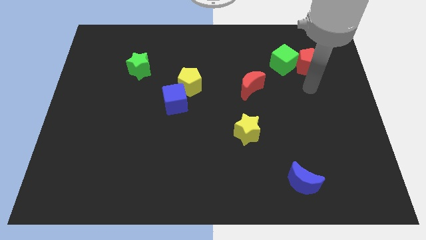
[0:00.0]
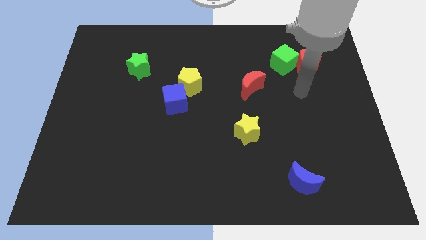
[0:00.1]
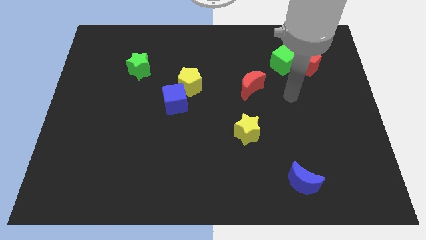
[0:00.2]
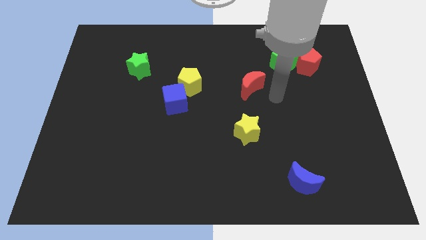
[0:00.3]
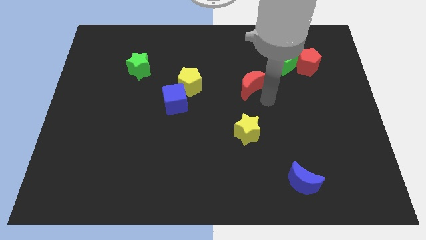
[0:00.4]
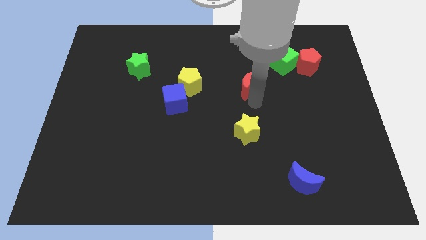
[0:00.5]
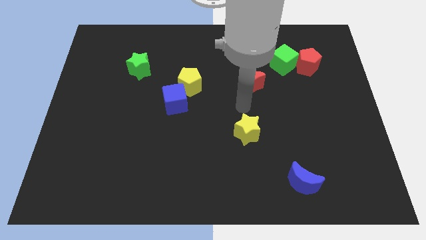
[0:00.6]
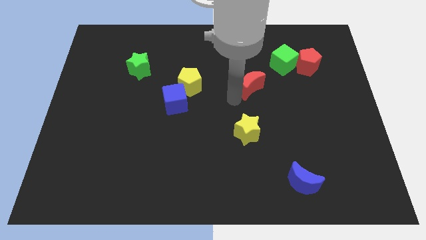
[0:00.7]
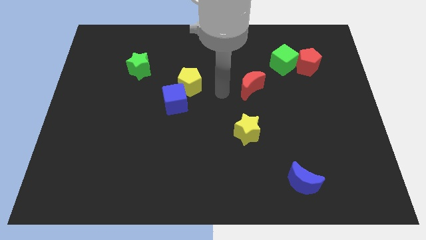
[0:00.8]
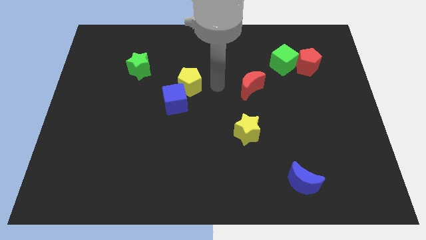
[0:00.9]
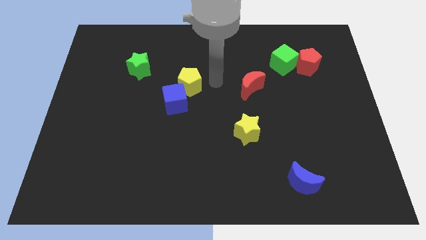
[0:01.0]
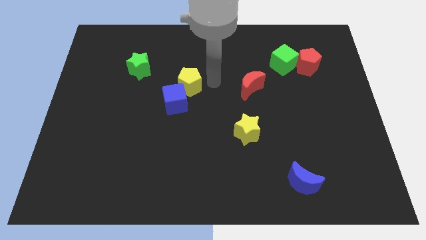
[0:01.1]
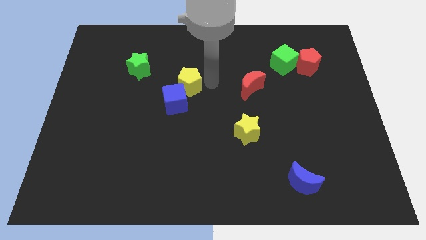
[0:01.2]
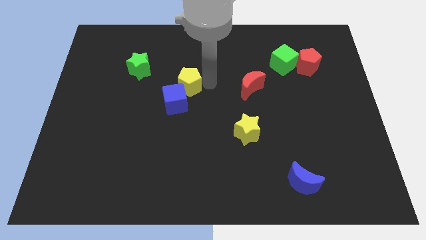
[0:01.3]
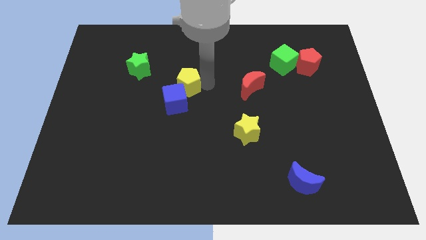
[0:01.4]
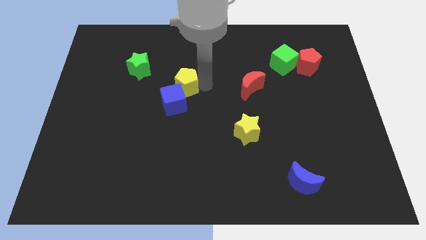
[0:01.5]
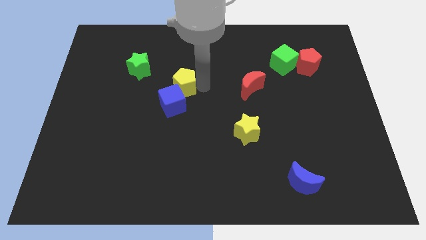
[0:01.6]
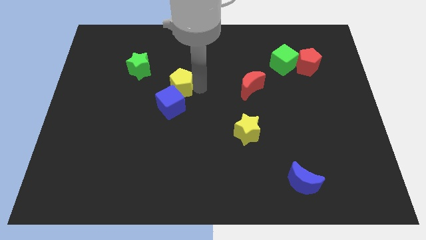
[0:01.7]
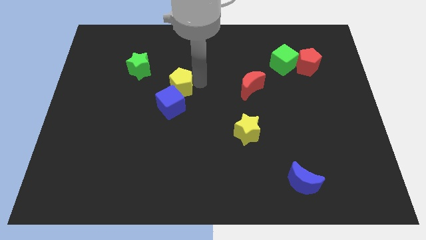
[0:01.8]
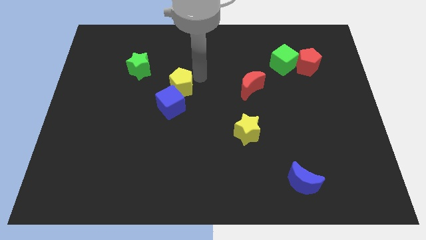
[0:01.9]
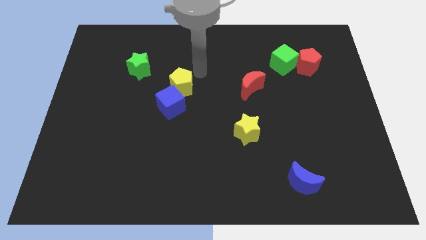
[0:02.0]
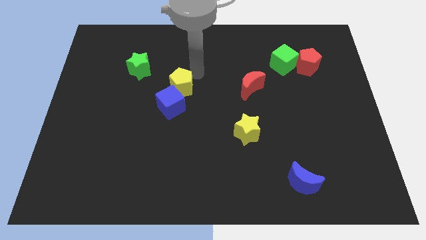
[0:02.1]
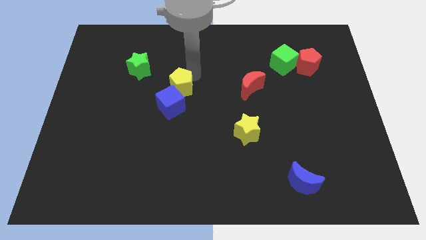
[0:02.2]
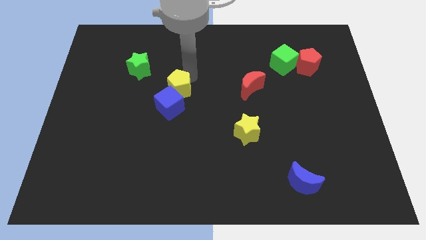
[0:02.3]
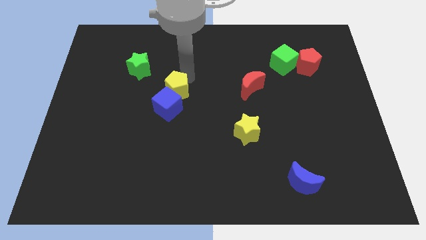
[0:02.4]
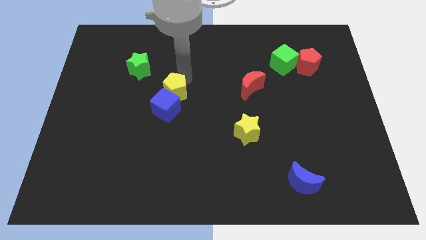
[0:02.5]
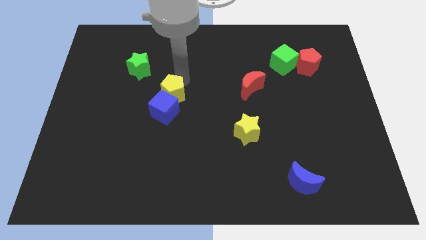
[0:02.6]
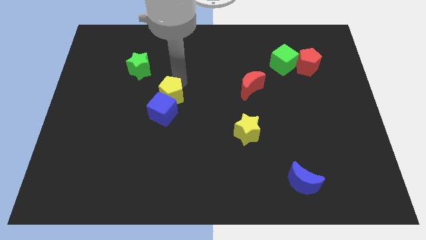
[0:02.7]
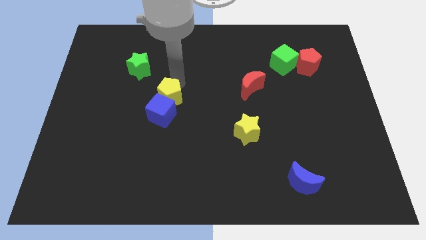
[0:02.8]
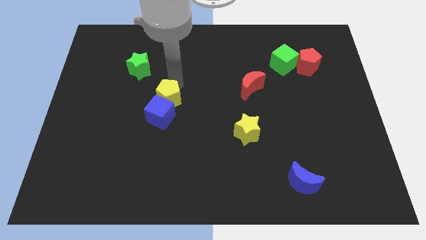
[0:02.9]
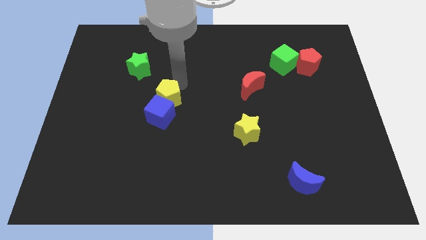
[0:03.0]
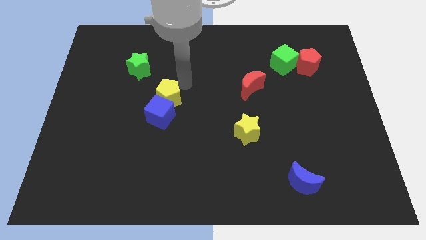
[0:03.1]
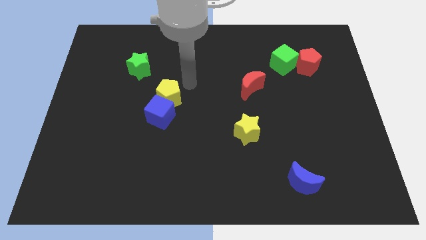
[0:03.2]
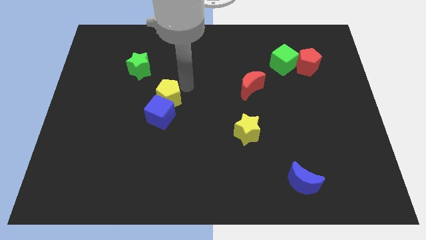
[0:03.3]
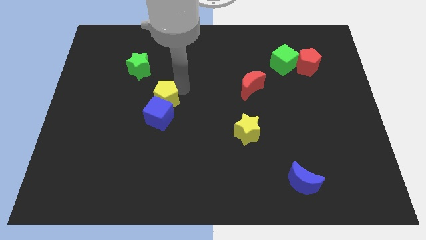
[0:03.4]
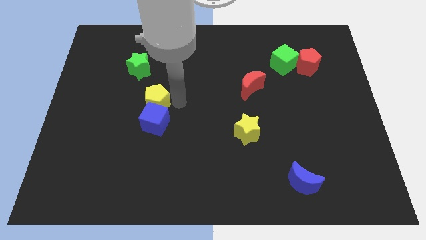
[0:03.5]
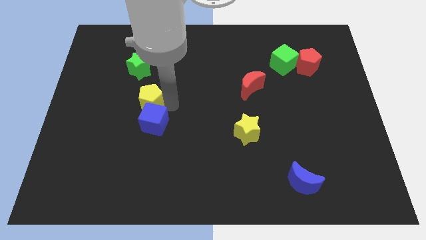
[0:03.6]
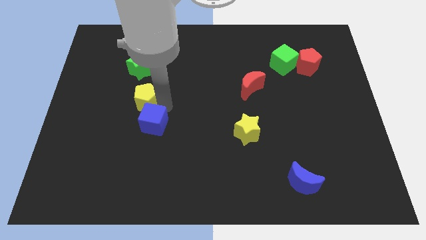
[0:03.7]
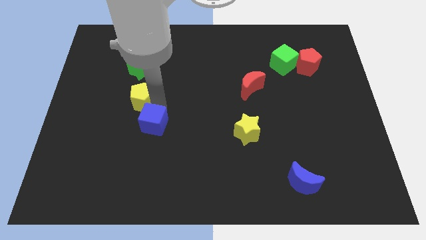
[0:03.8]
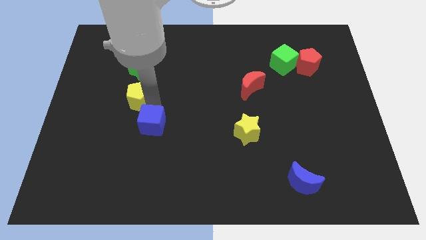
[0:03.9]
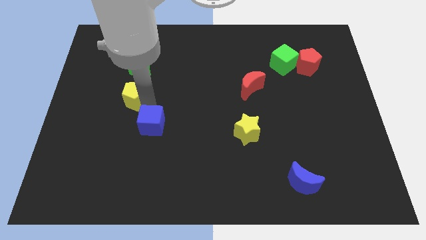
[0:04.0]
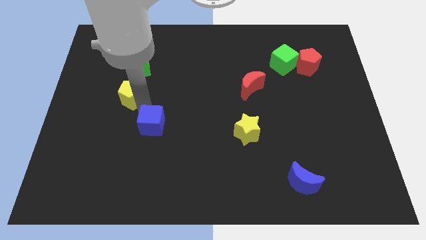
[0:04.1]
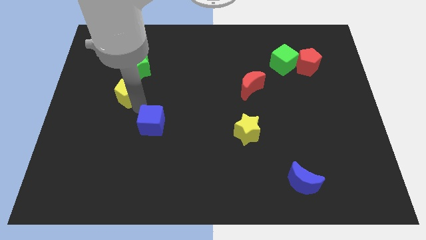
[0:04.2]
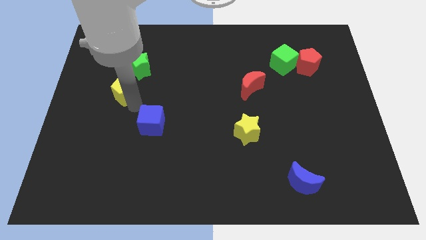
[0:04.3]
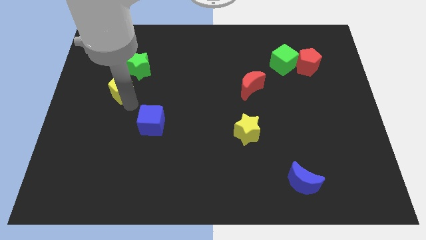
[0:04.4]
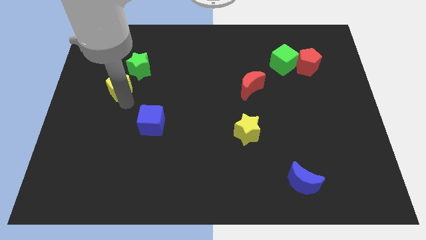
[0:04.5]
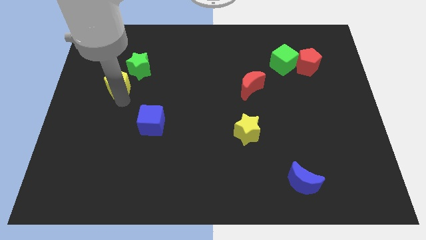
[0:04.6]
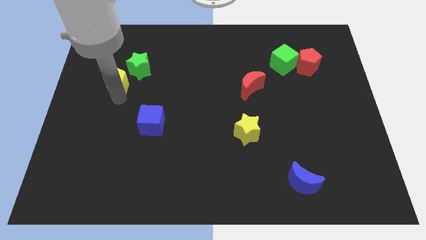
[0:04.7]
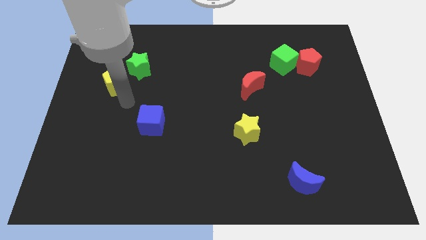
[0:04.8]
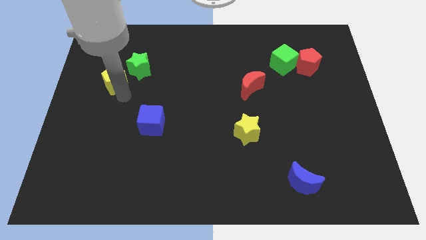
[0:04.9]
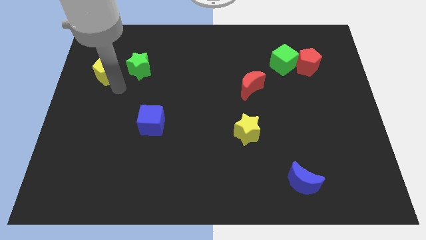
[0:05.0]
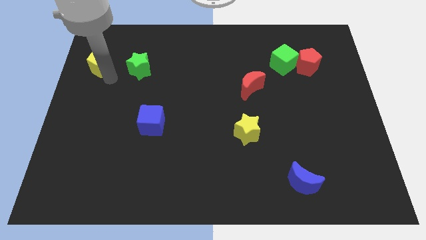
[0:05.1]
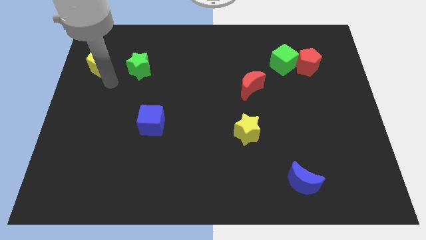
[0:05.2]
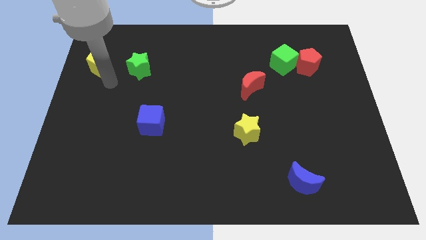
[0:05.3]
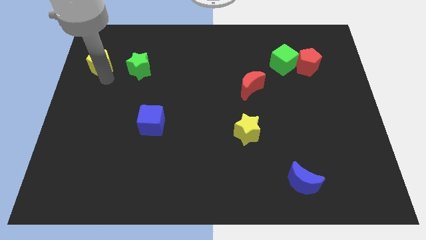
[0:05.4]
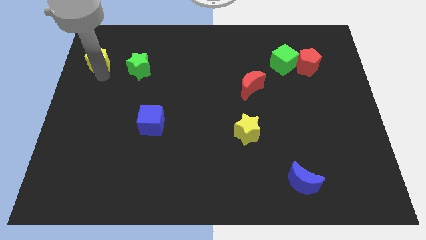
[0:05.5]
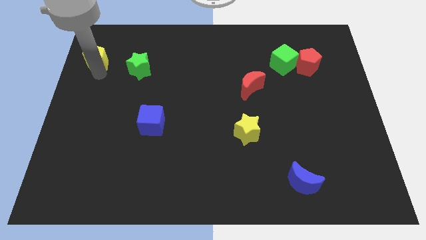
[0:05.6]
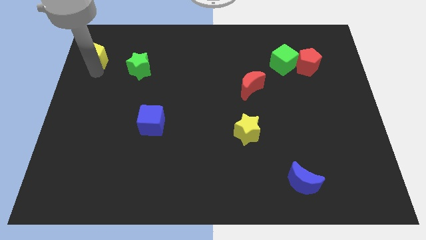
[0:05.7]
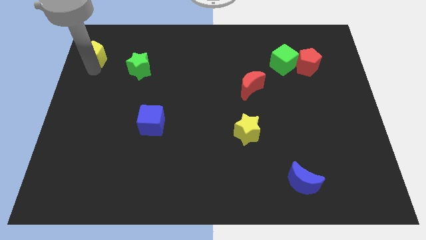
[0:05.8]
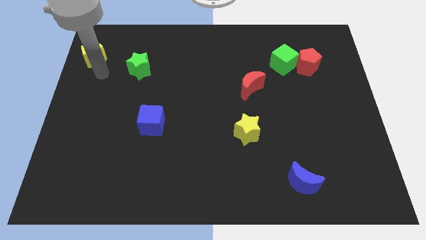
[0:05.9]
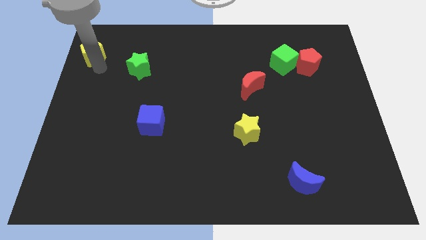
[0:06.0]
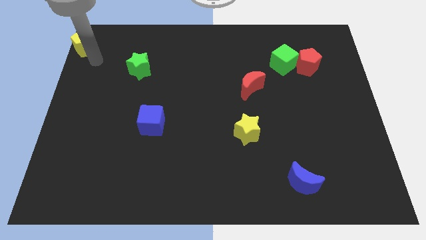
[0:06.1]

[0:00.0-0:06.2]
put the yellow pentagon to the top left corner

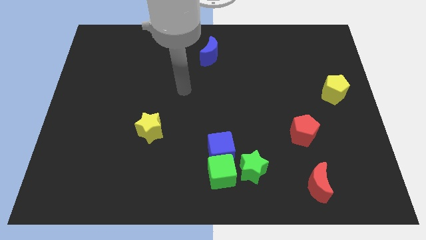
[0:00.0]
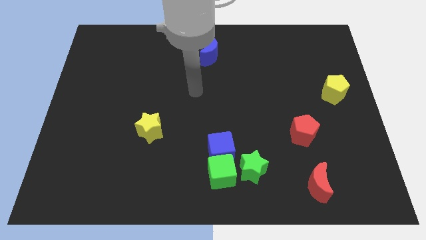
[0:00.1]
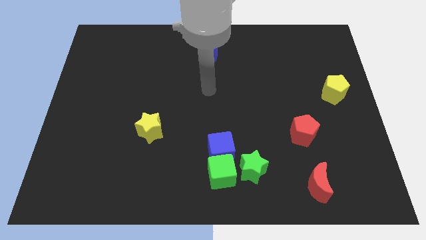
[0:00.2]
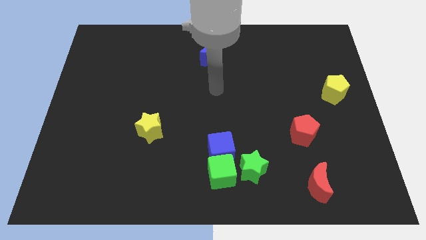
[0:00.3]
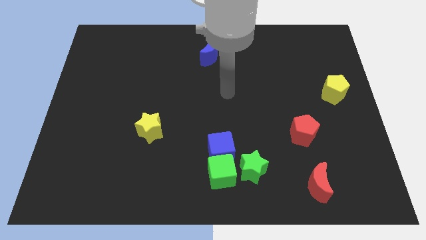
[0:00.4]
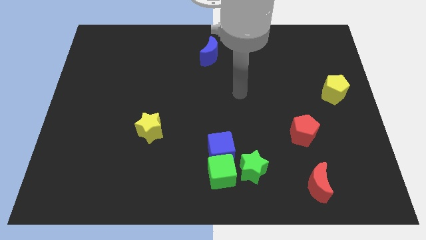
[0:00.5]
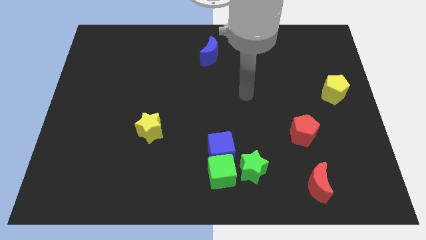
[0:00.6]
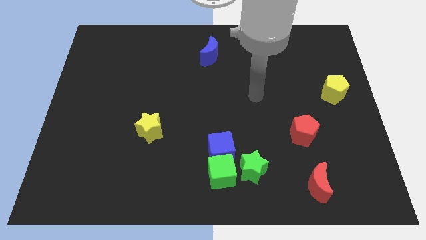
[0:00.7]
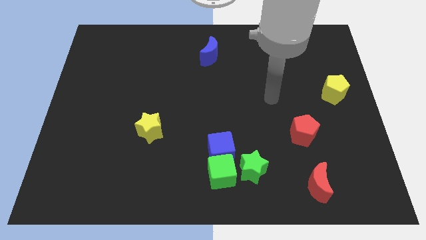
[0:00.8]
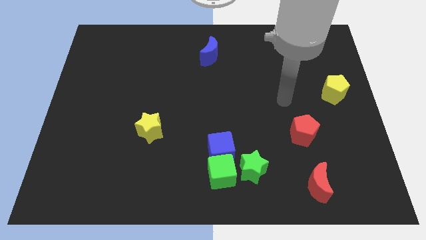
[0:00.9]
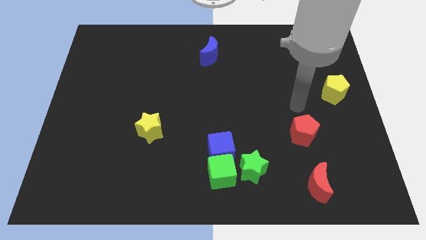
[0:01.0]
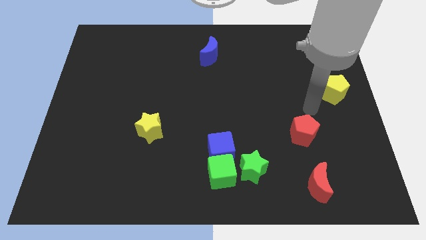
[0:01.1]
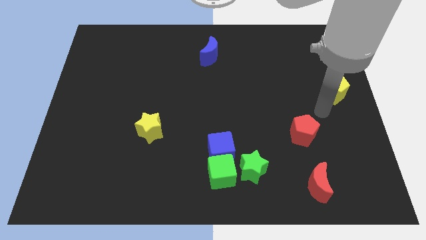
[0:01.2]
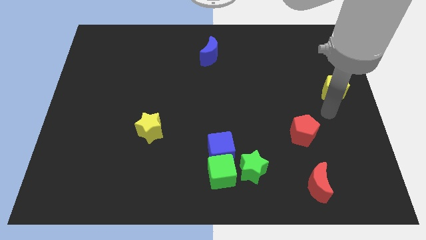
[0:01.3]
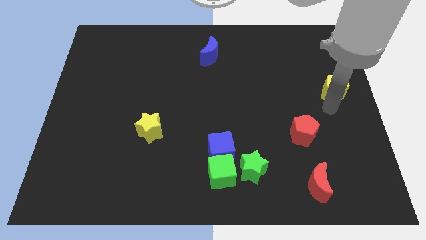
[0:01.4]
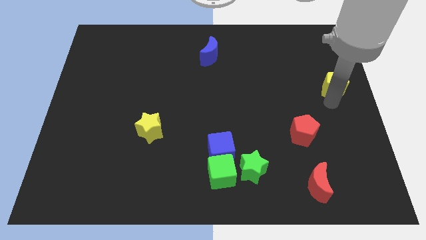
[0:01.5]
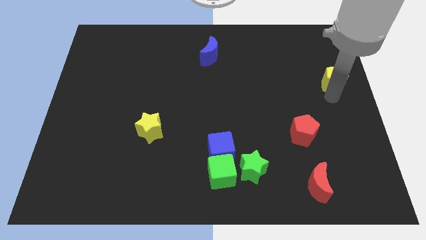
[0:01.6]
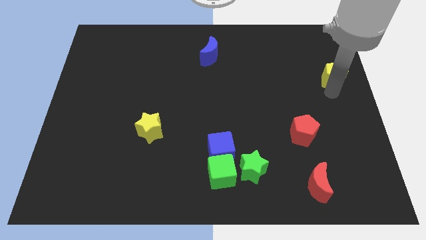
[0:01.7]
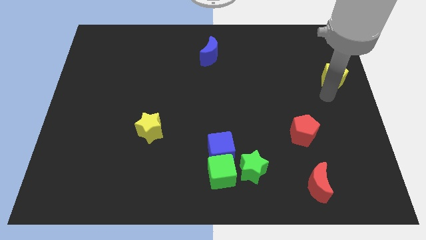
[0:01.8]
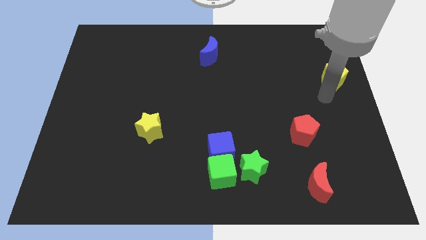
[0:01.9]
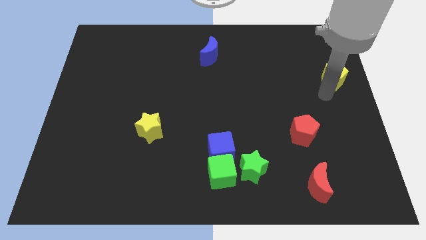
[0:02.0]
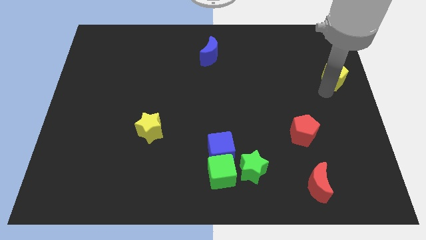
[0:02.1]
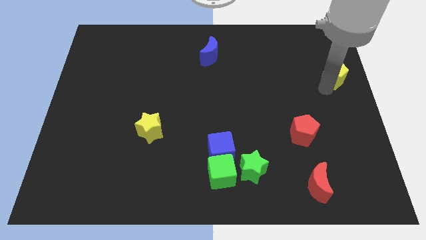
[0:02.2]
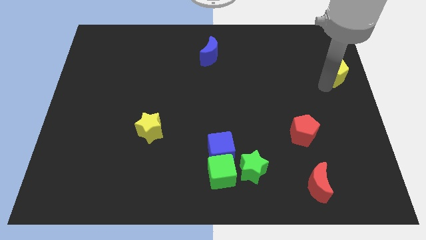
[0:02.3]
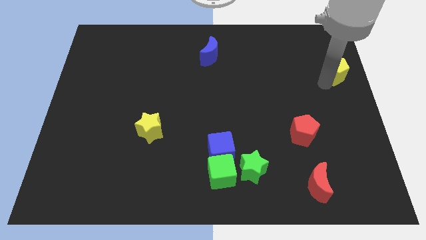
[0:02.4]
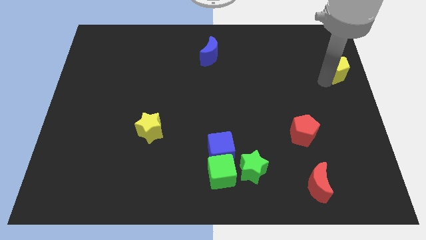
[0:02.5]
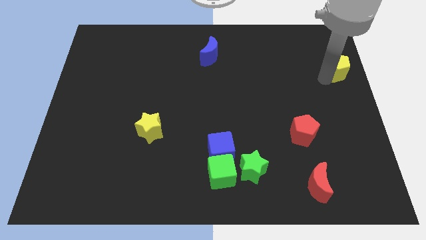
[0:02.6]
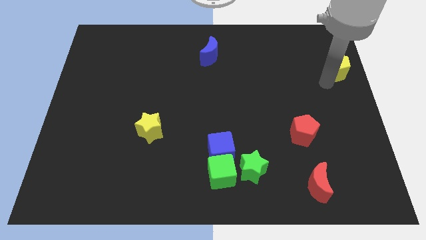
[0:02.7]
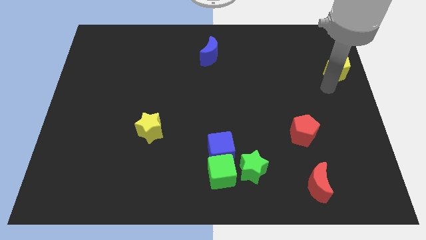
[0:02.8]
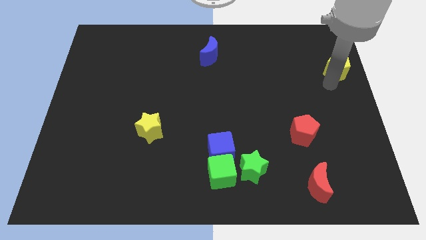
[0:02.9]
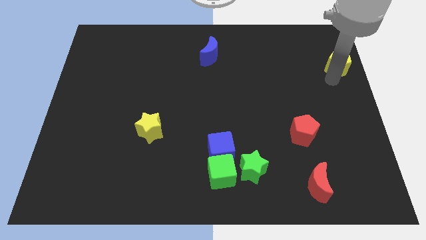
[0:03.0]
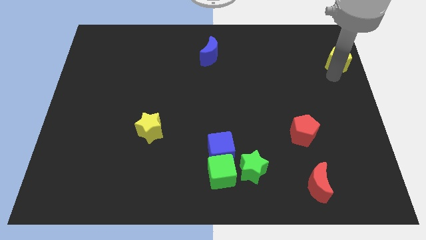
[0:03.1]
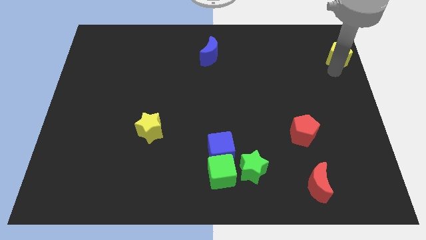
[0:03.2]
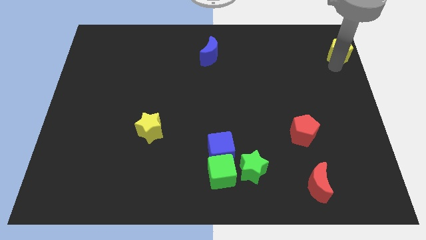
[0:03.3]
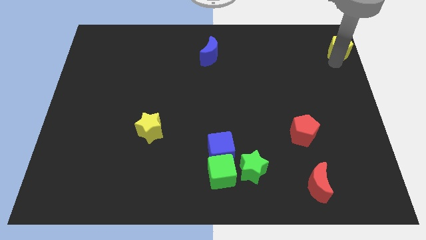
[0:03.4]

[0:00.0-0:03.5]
move the yellow pentagon to the top right
